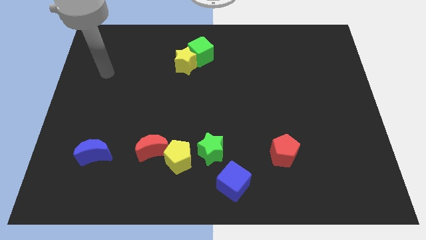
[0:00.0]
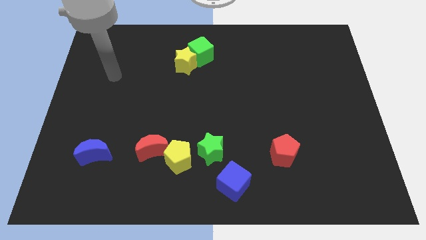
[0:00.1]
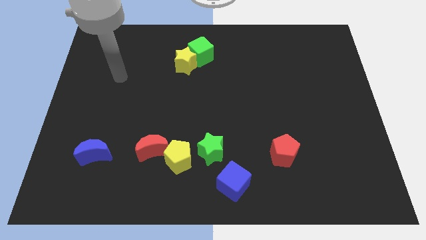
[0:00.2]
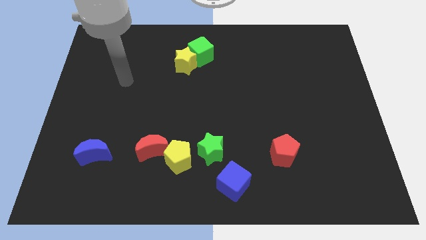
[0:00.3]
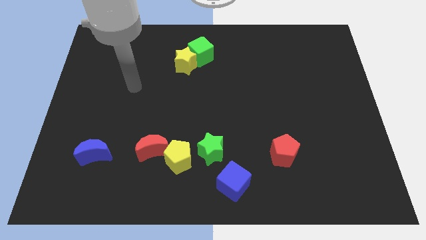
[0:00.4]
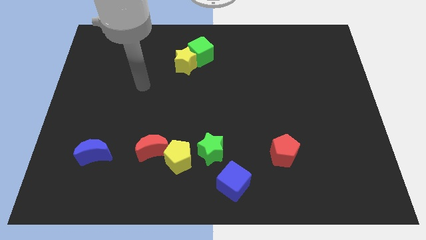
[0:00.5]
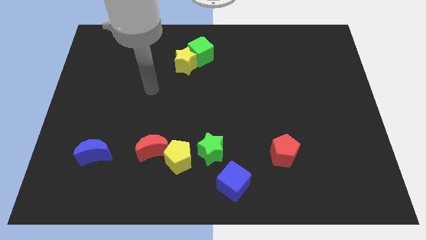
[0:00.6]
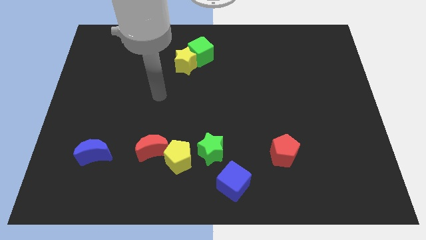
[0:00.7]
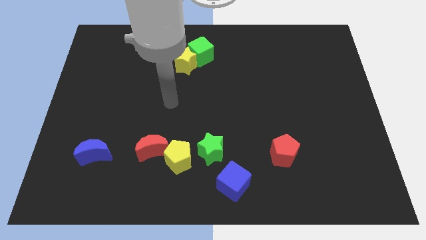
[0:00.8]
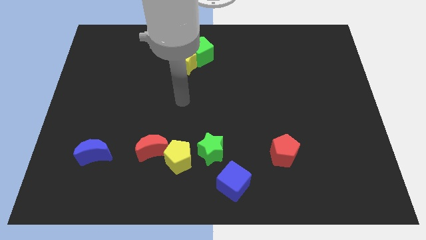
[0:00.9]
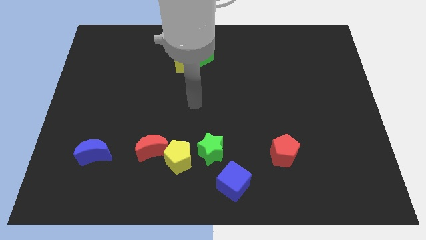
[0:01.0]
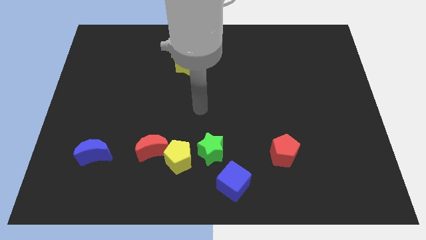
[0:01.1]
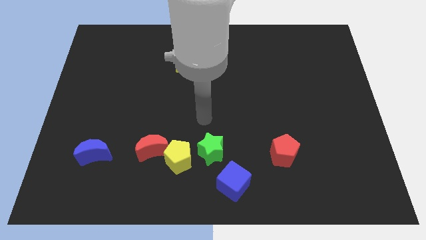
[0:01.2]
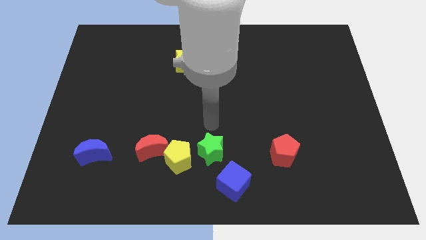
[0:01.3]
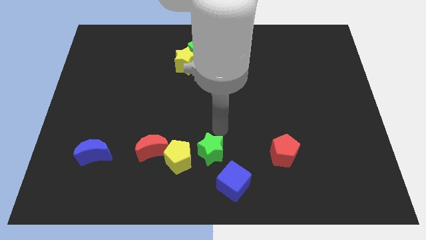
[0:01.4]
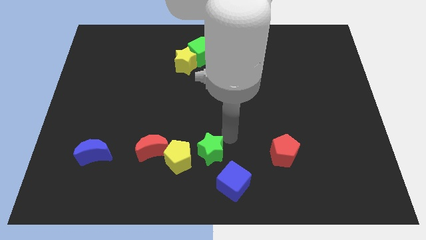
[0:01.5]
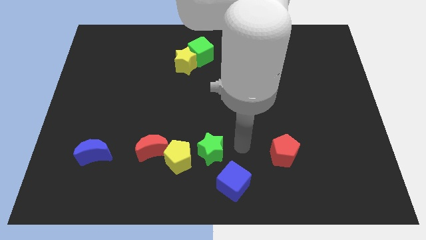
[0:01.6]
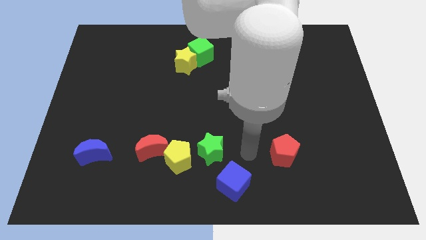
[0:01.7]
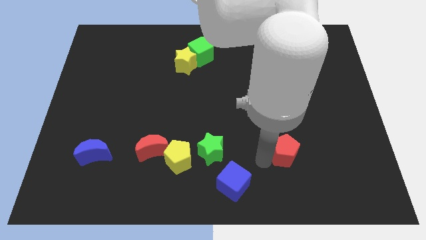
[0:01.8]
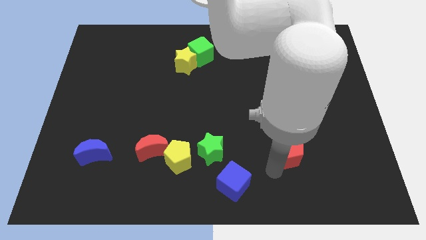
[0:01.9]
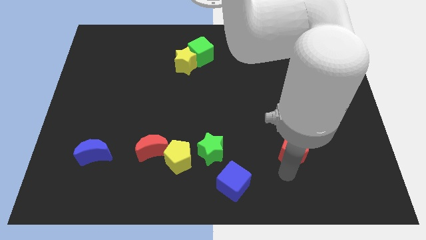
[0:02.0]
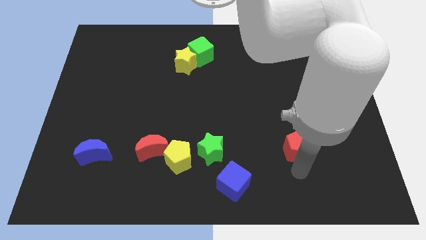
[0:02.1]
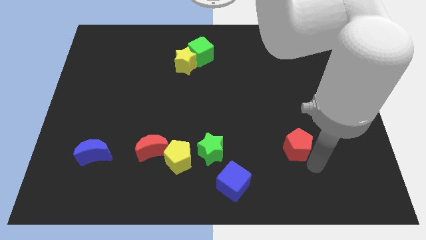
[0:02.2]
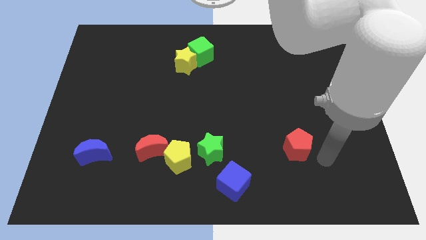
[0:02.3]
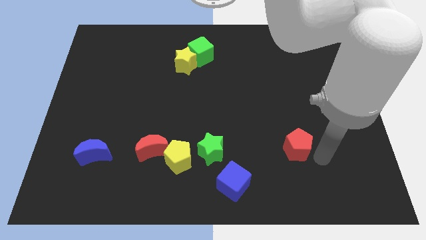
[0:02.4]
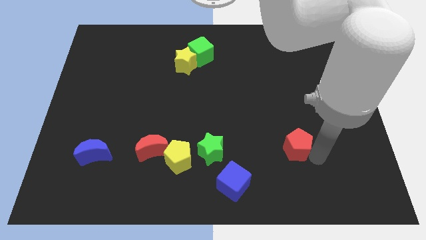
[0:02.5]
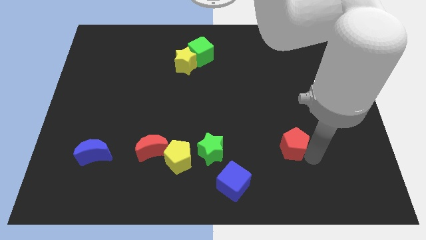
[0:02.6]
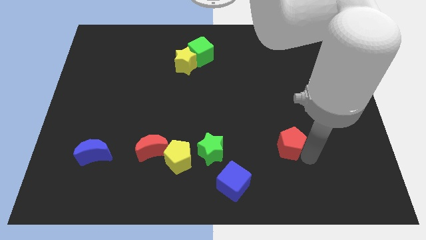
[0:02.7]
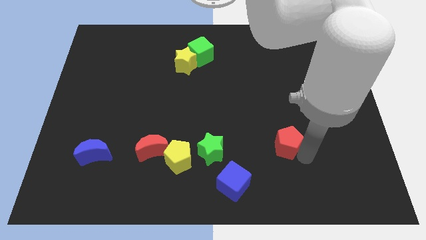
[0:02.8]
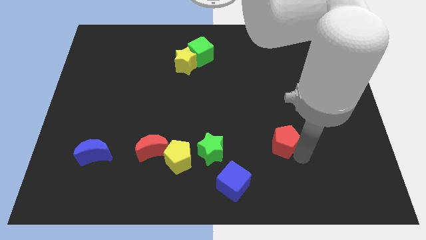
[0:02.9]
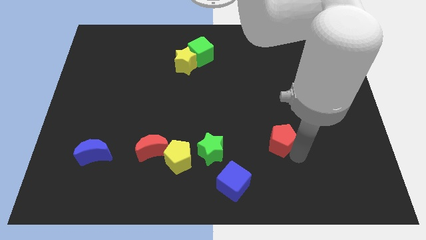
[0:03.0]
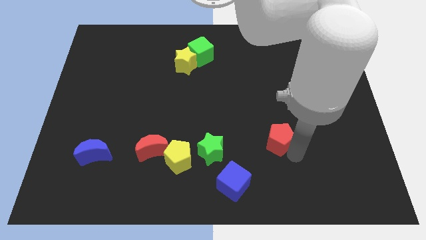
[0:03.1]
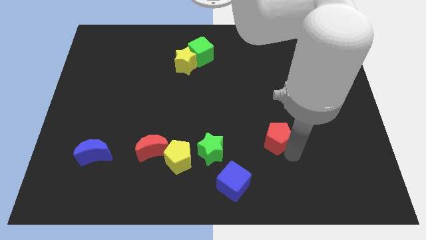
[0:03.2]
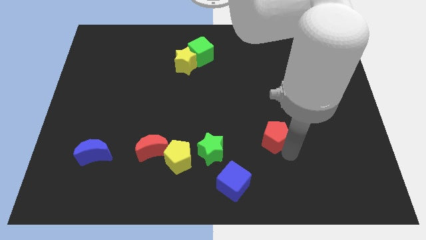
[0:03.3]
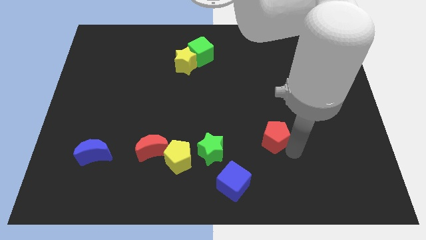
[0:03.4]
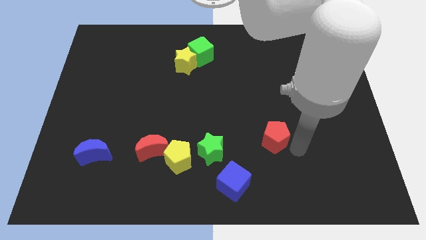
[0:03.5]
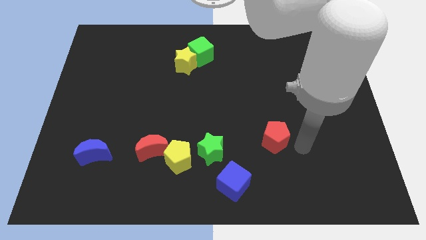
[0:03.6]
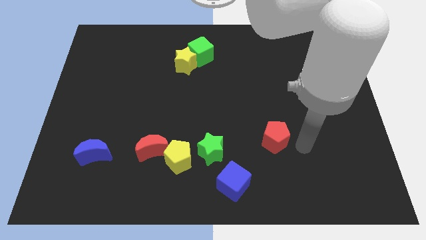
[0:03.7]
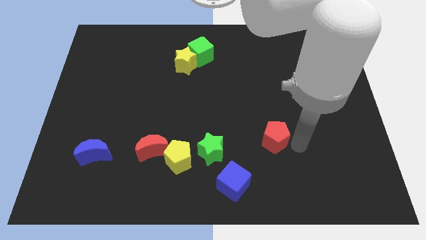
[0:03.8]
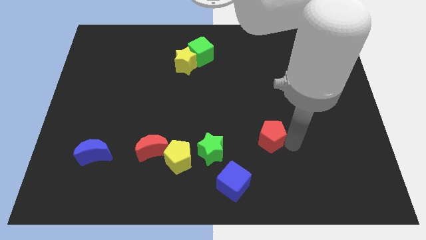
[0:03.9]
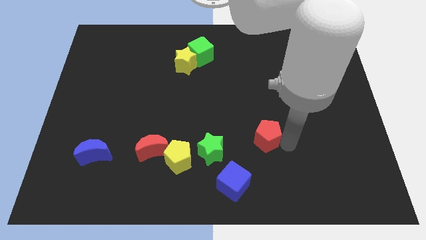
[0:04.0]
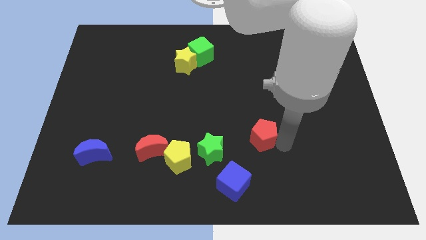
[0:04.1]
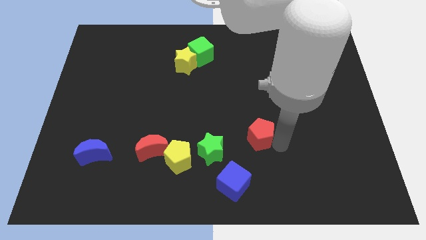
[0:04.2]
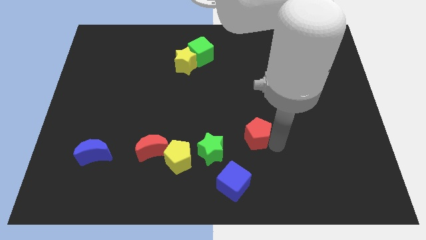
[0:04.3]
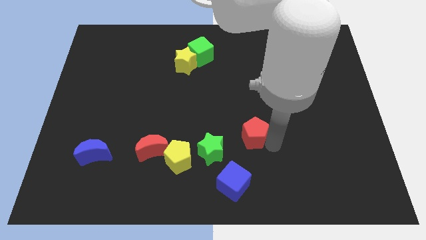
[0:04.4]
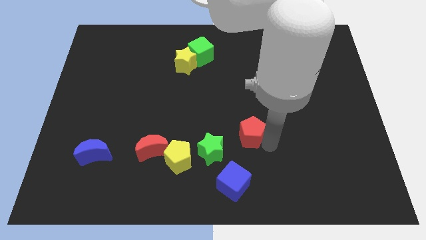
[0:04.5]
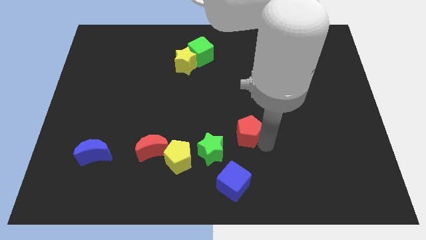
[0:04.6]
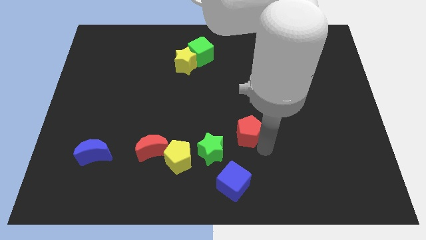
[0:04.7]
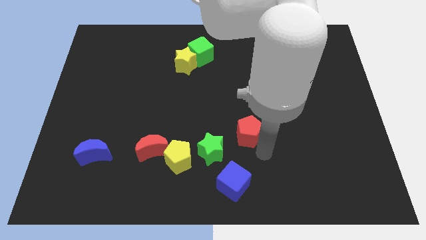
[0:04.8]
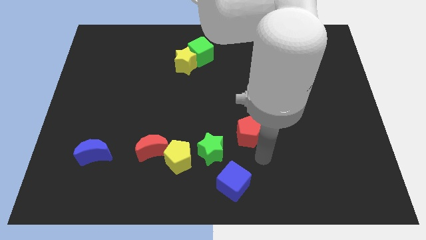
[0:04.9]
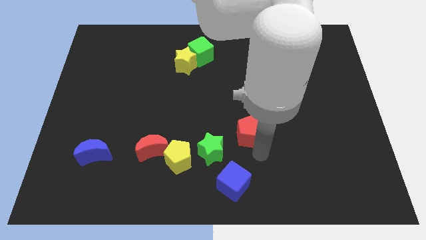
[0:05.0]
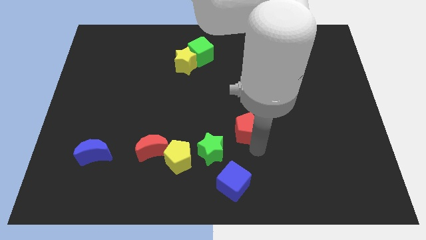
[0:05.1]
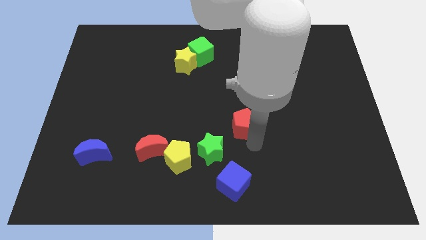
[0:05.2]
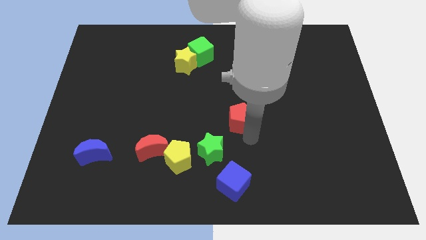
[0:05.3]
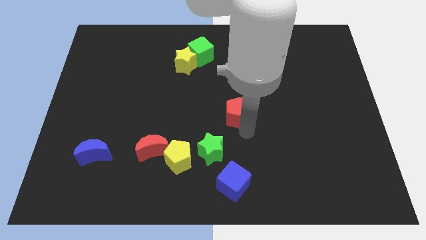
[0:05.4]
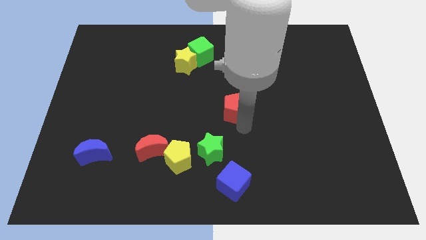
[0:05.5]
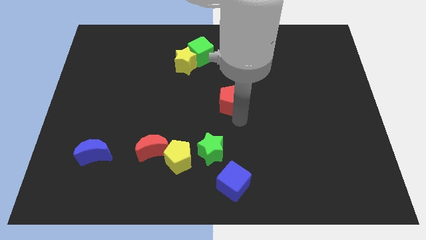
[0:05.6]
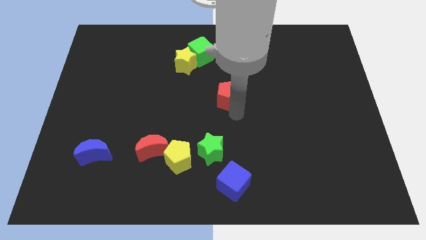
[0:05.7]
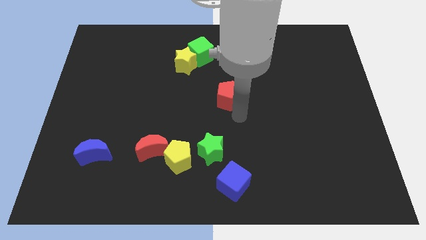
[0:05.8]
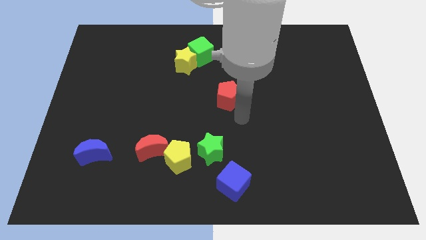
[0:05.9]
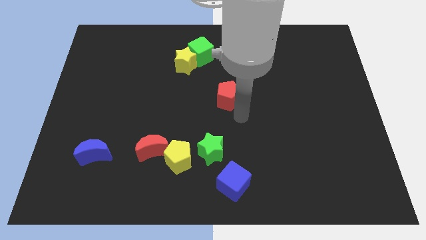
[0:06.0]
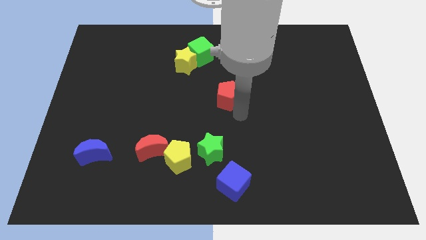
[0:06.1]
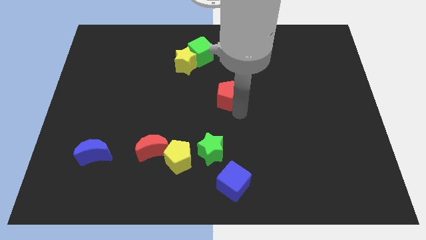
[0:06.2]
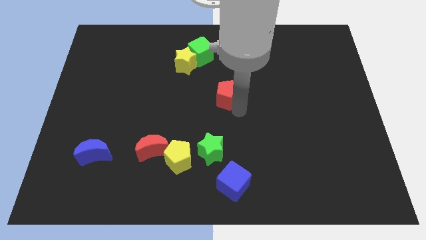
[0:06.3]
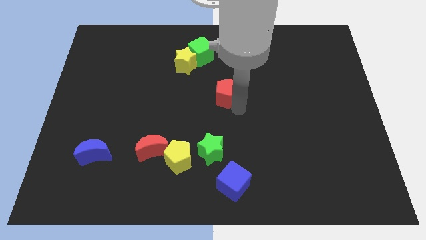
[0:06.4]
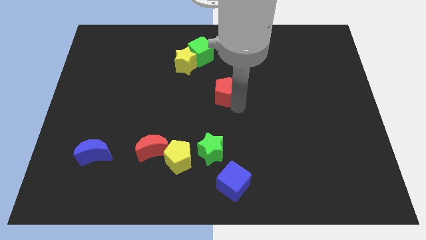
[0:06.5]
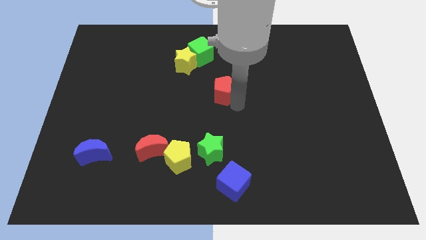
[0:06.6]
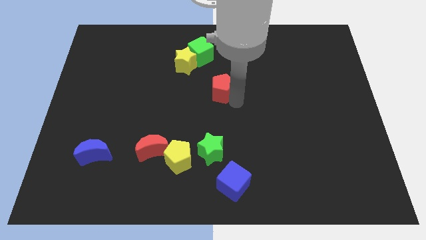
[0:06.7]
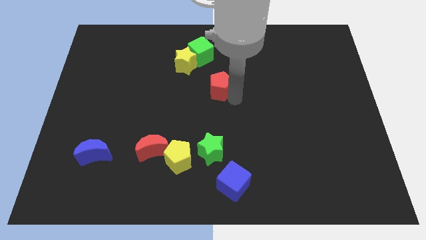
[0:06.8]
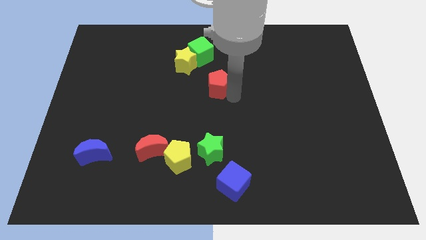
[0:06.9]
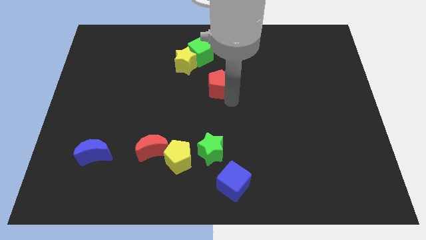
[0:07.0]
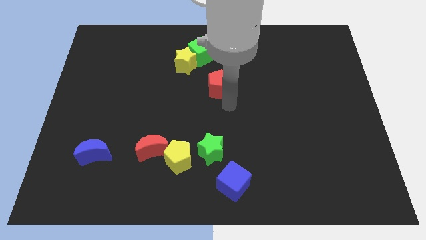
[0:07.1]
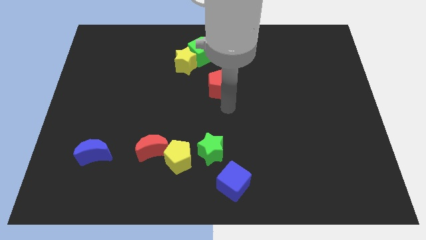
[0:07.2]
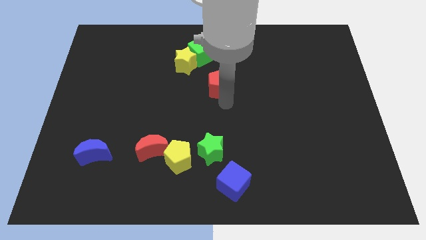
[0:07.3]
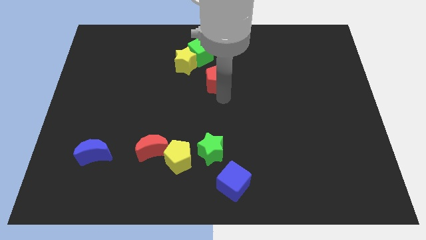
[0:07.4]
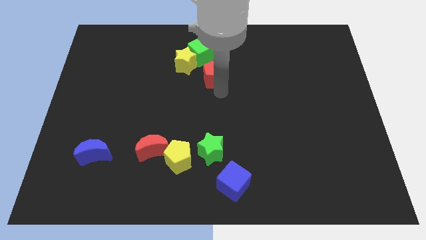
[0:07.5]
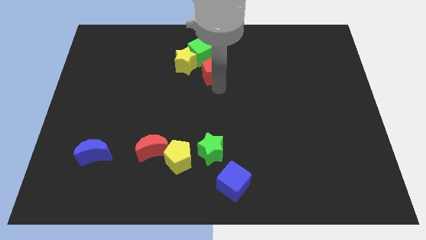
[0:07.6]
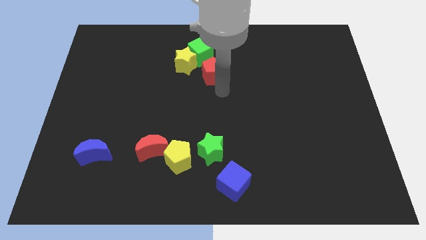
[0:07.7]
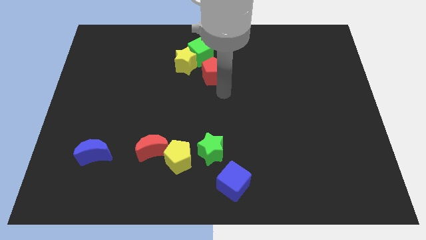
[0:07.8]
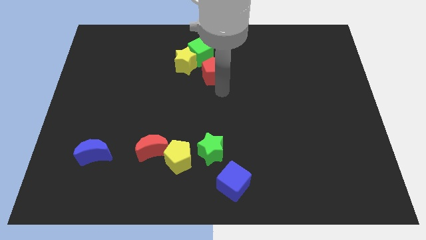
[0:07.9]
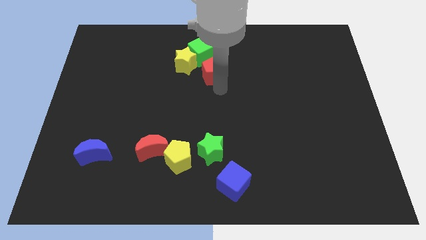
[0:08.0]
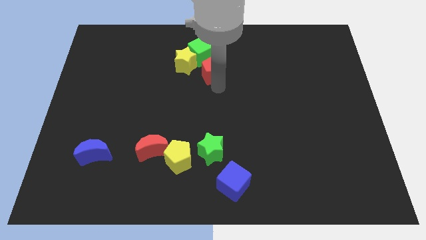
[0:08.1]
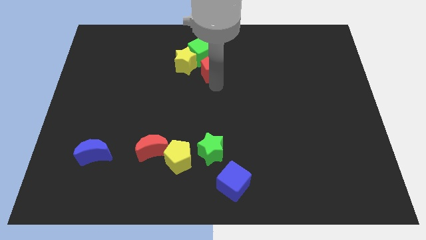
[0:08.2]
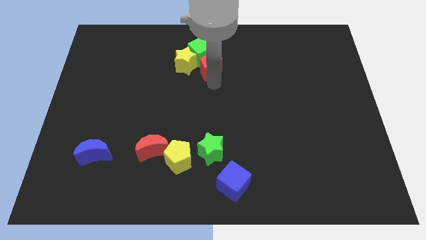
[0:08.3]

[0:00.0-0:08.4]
push the red pentagon towards the green cube
